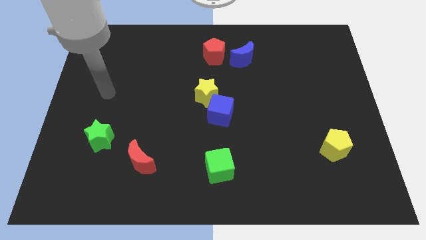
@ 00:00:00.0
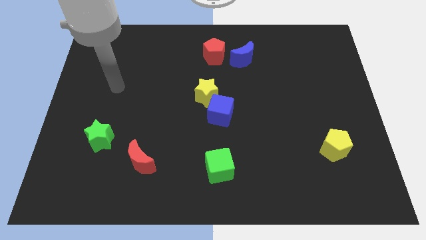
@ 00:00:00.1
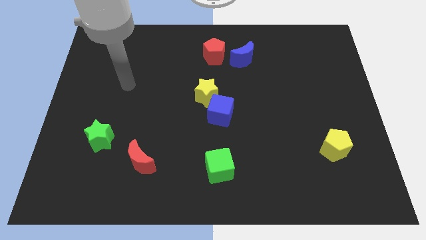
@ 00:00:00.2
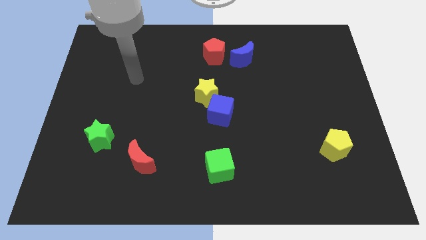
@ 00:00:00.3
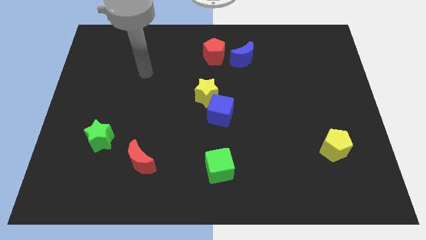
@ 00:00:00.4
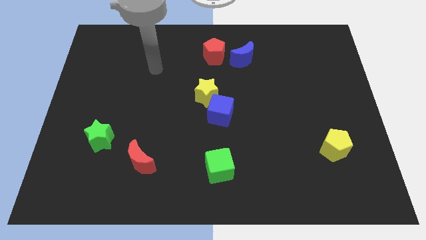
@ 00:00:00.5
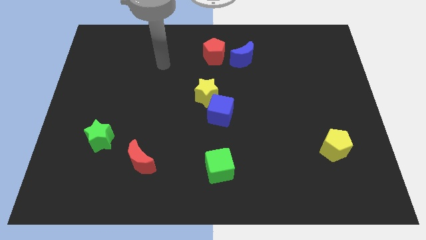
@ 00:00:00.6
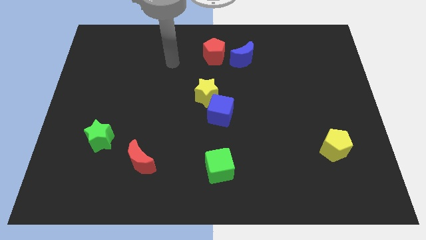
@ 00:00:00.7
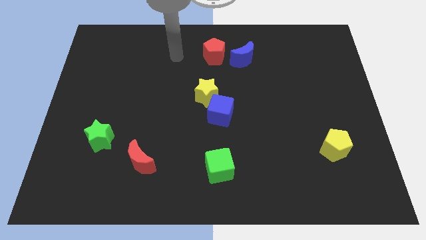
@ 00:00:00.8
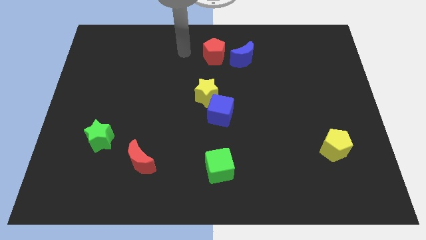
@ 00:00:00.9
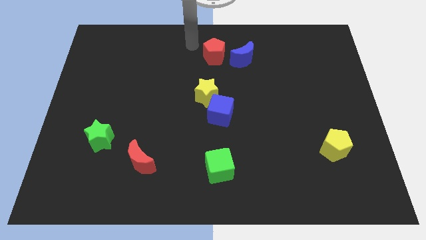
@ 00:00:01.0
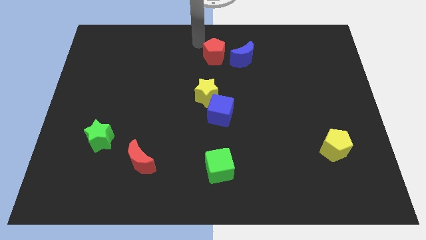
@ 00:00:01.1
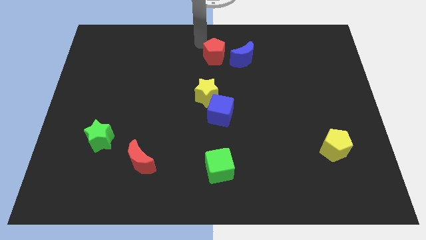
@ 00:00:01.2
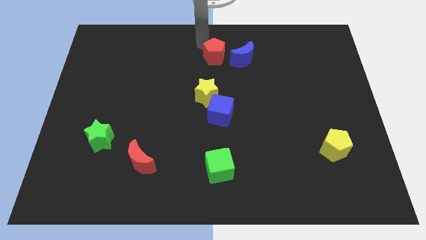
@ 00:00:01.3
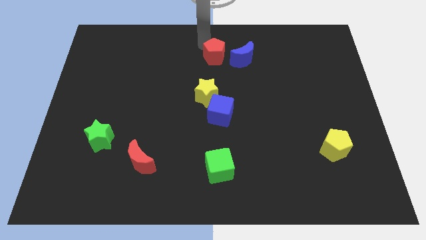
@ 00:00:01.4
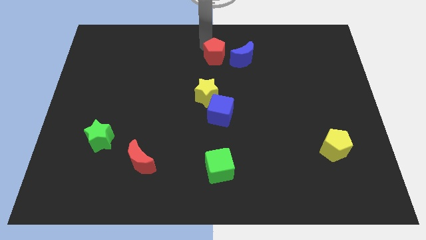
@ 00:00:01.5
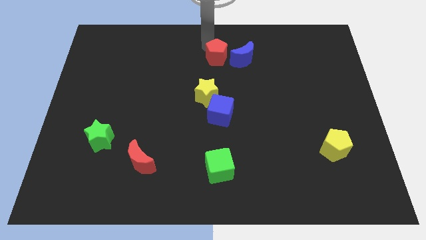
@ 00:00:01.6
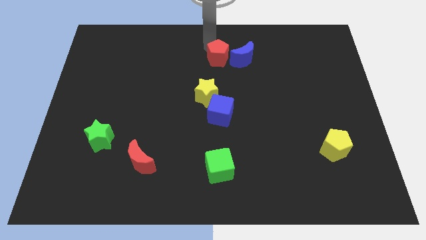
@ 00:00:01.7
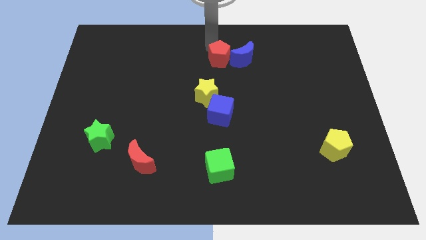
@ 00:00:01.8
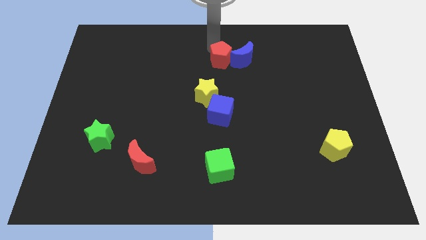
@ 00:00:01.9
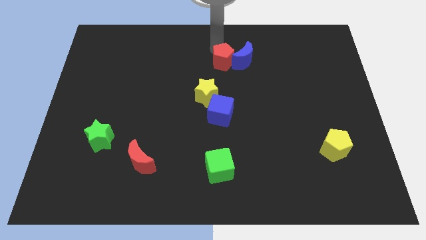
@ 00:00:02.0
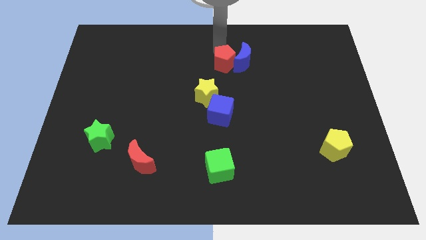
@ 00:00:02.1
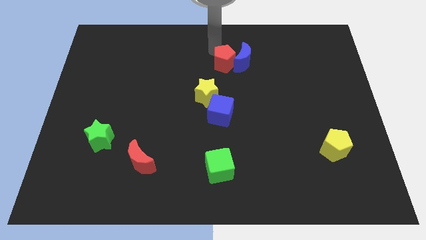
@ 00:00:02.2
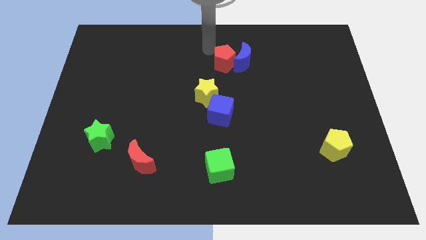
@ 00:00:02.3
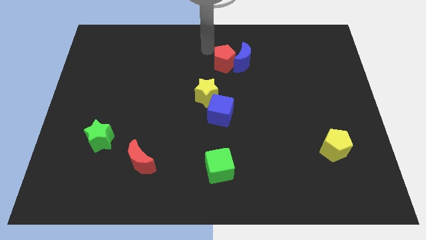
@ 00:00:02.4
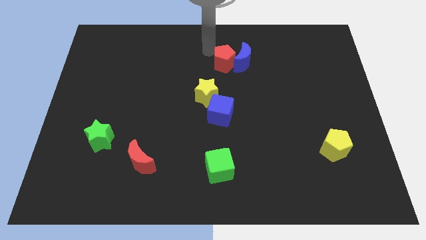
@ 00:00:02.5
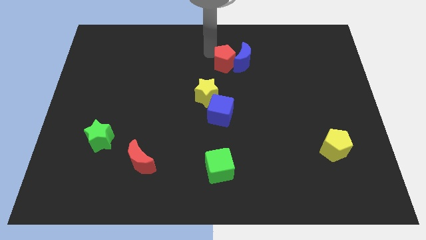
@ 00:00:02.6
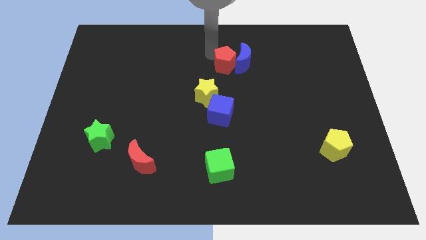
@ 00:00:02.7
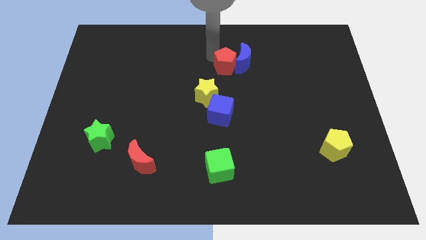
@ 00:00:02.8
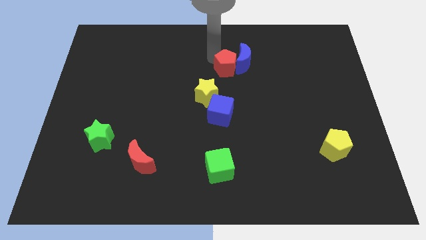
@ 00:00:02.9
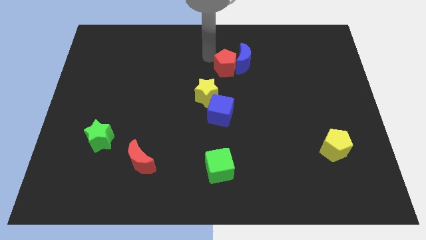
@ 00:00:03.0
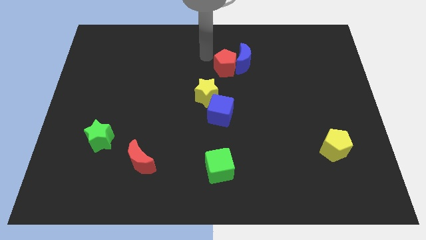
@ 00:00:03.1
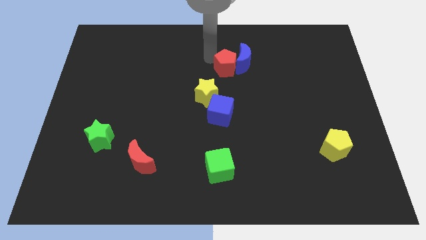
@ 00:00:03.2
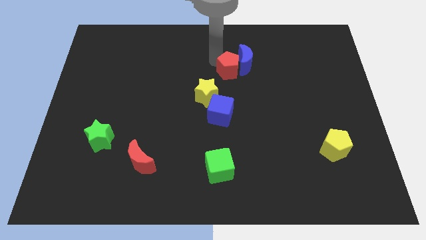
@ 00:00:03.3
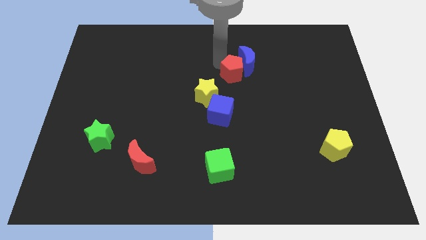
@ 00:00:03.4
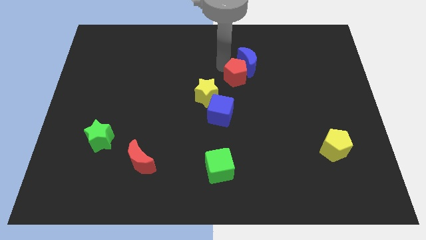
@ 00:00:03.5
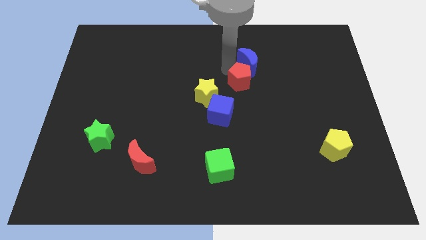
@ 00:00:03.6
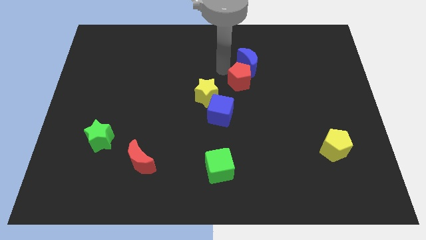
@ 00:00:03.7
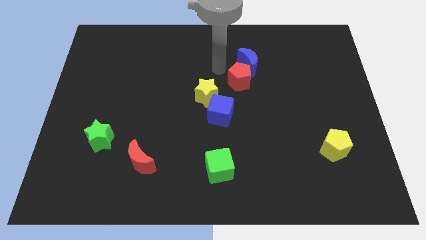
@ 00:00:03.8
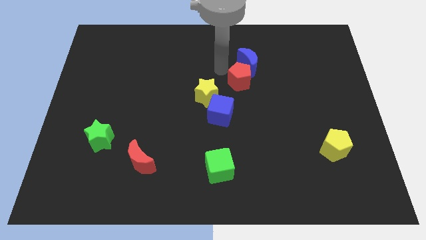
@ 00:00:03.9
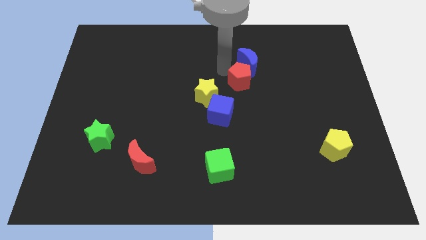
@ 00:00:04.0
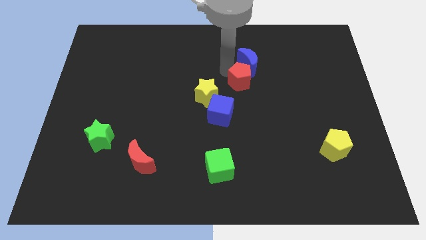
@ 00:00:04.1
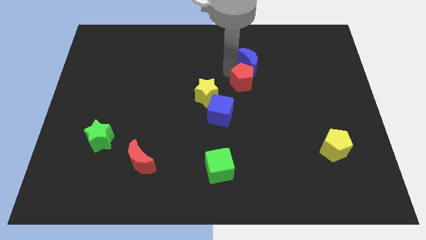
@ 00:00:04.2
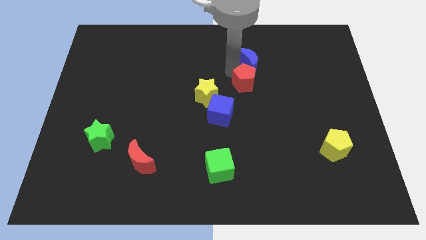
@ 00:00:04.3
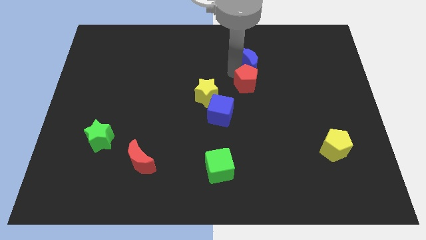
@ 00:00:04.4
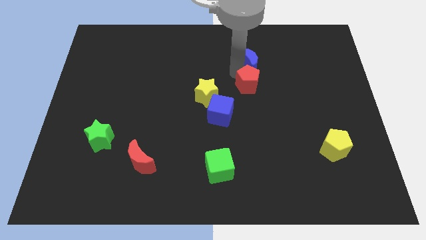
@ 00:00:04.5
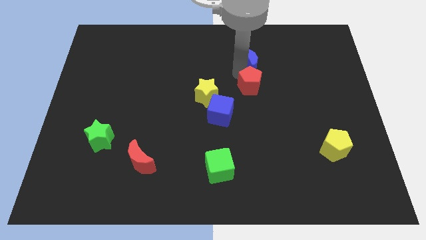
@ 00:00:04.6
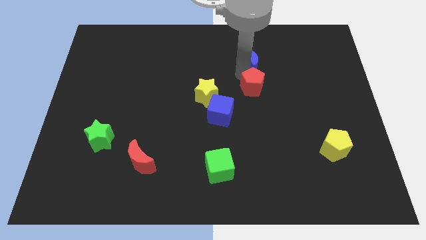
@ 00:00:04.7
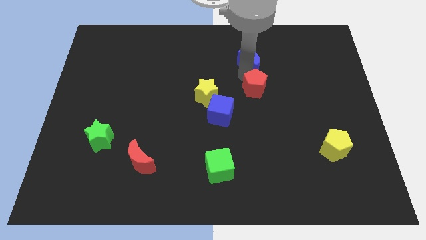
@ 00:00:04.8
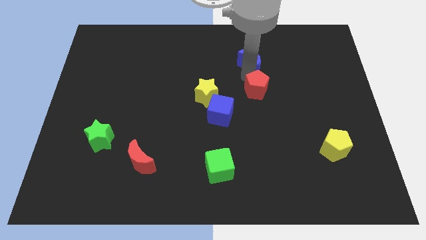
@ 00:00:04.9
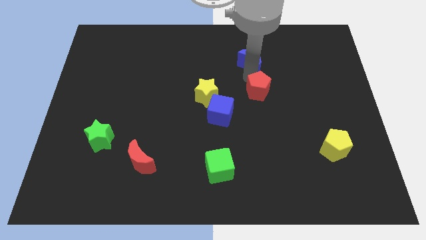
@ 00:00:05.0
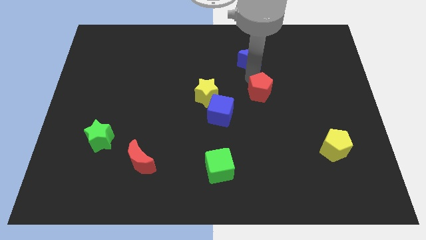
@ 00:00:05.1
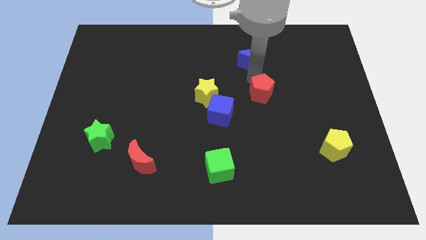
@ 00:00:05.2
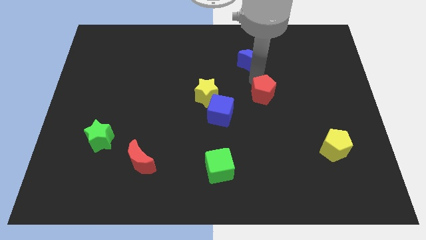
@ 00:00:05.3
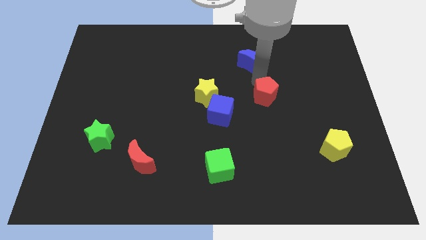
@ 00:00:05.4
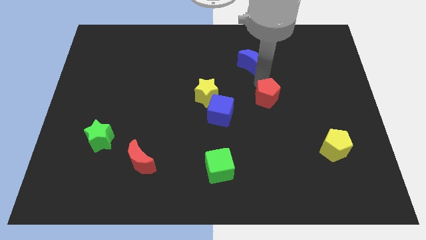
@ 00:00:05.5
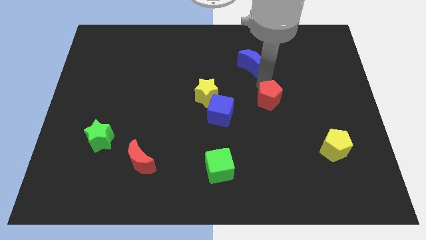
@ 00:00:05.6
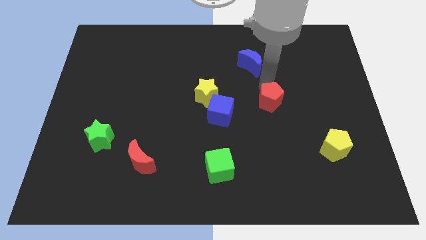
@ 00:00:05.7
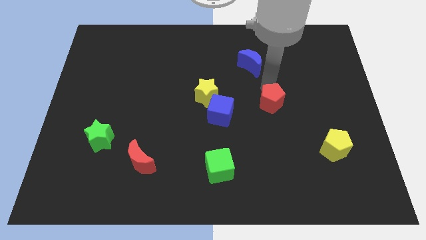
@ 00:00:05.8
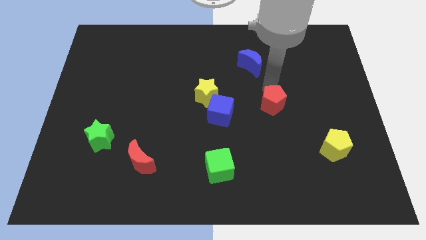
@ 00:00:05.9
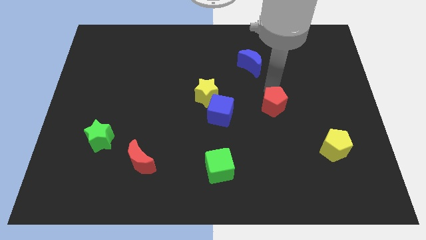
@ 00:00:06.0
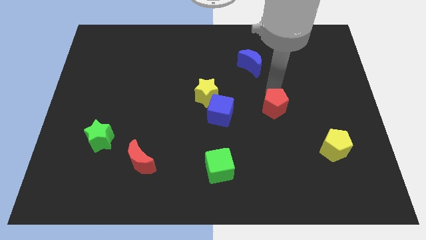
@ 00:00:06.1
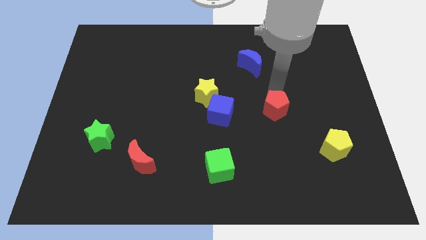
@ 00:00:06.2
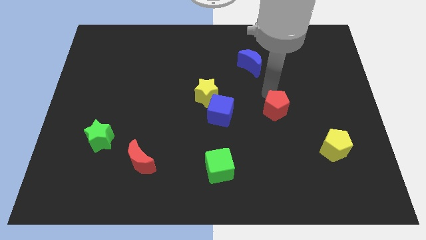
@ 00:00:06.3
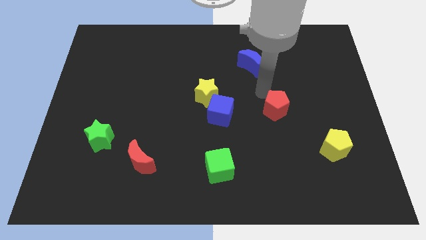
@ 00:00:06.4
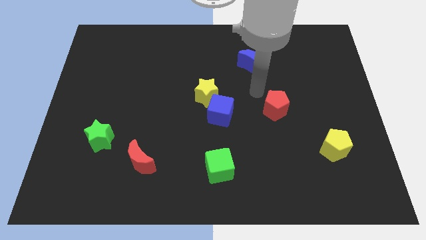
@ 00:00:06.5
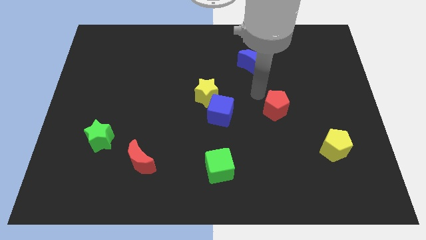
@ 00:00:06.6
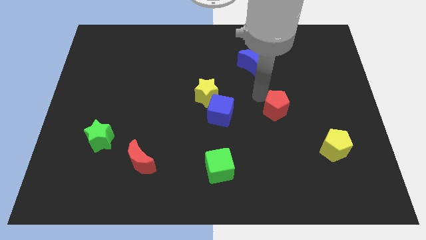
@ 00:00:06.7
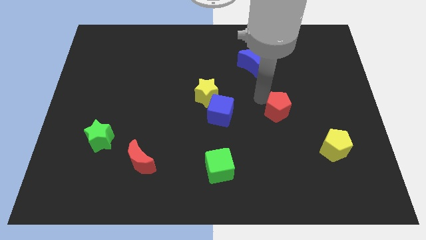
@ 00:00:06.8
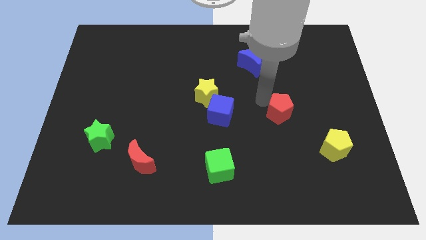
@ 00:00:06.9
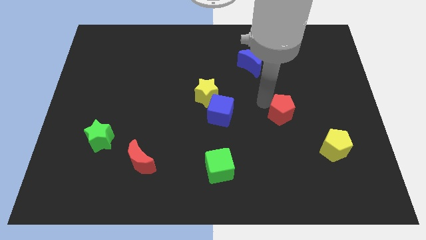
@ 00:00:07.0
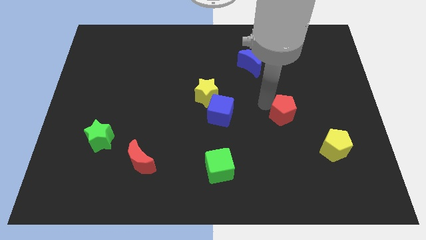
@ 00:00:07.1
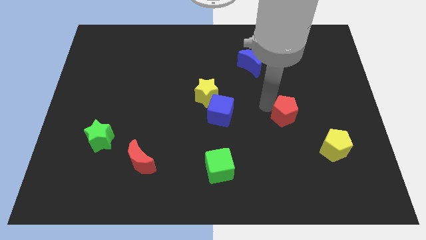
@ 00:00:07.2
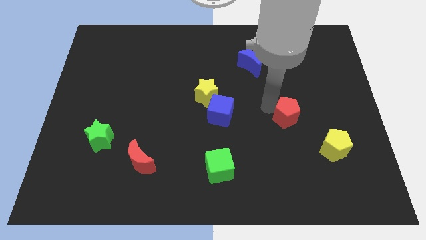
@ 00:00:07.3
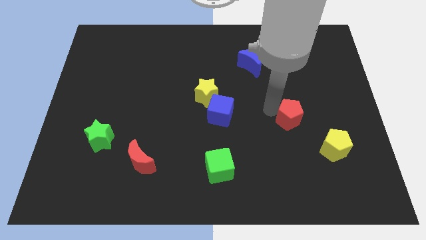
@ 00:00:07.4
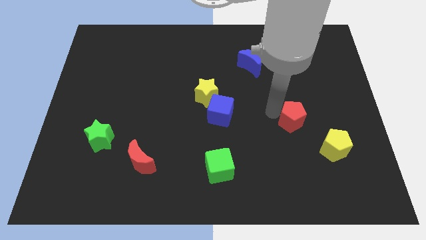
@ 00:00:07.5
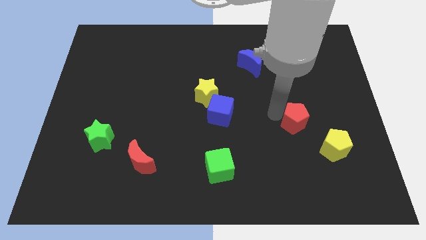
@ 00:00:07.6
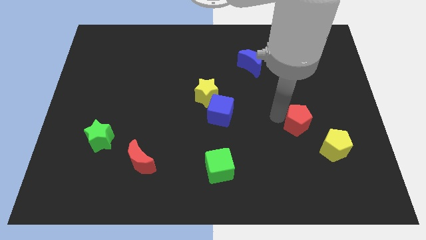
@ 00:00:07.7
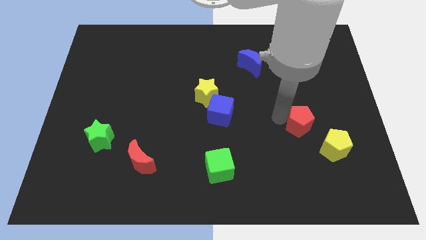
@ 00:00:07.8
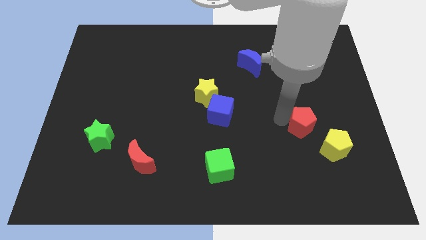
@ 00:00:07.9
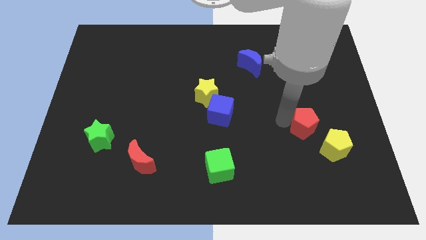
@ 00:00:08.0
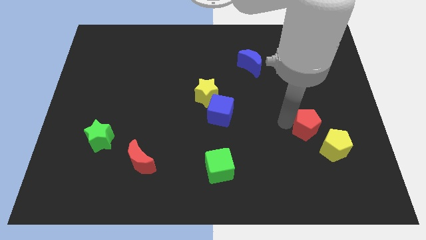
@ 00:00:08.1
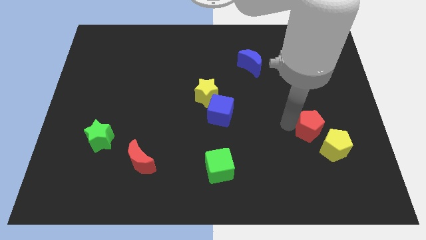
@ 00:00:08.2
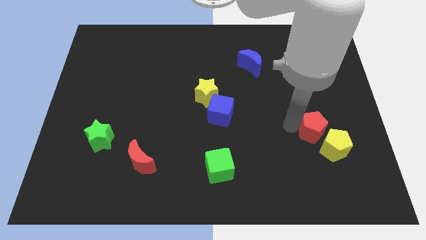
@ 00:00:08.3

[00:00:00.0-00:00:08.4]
push the red pentagon next to the yellow pentagon
